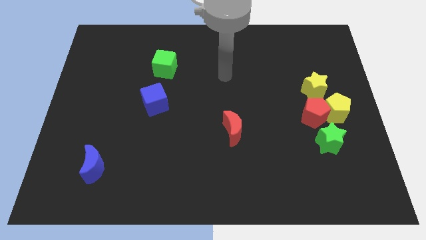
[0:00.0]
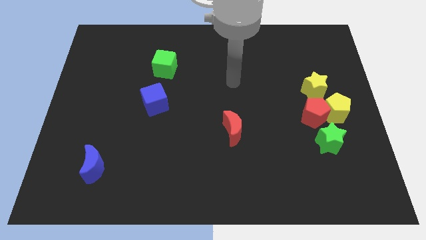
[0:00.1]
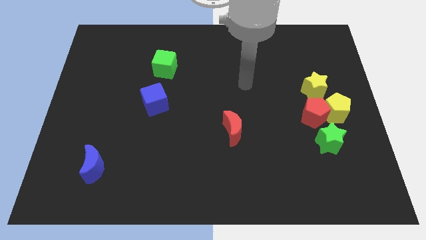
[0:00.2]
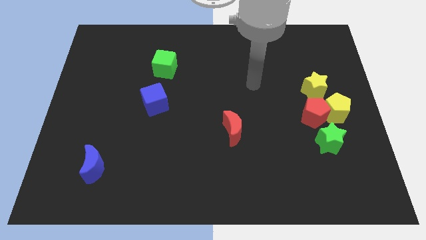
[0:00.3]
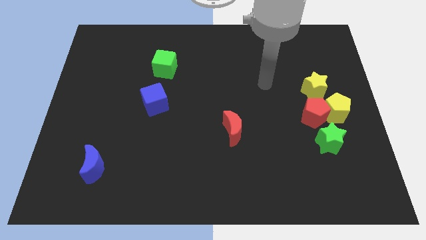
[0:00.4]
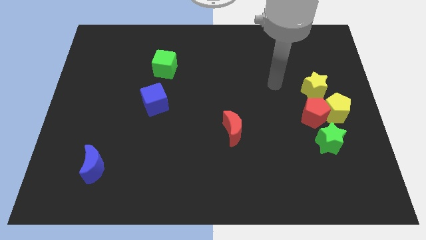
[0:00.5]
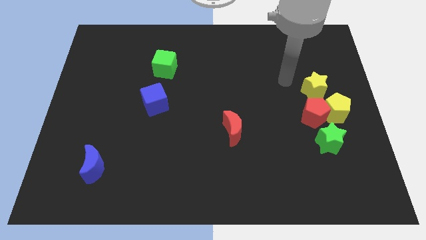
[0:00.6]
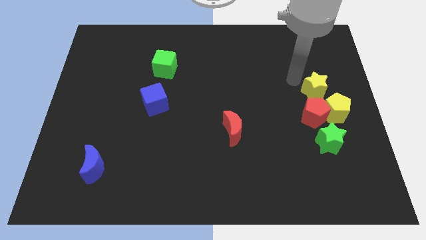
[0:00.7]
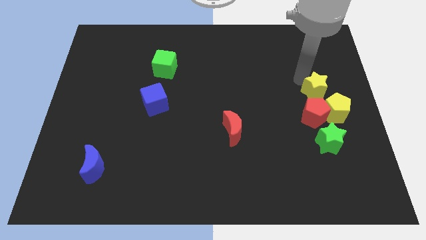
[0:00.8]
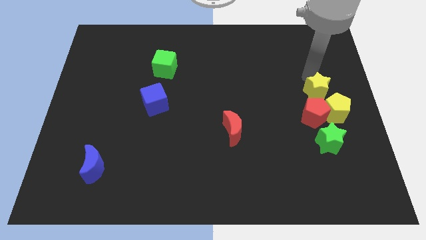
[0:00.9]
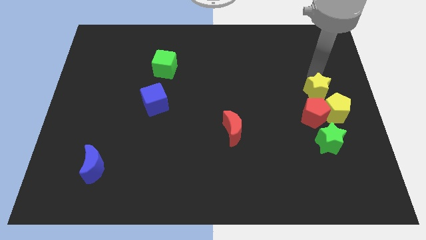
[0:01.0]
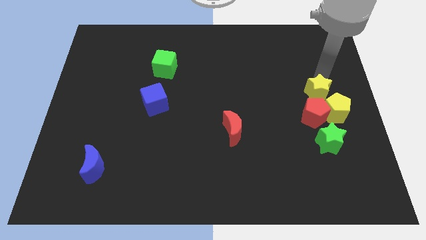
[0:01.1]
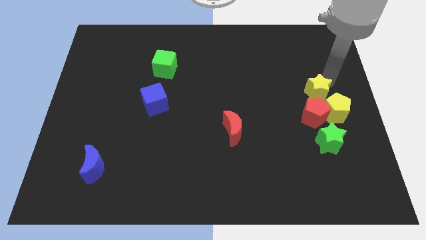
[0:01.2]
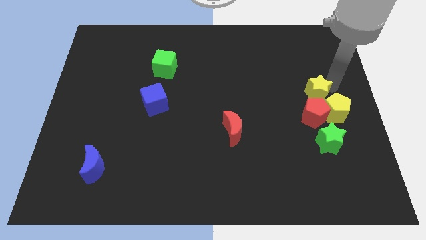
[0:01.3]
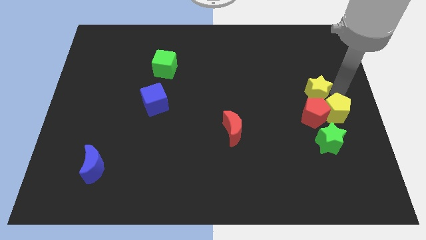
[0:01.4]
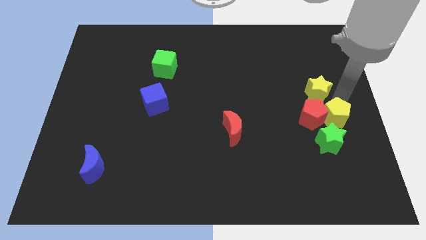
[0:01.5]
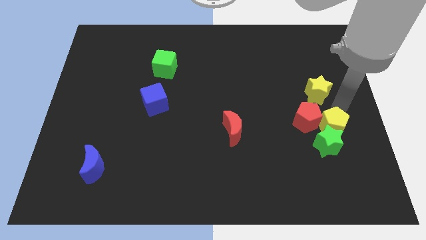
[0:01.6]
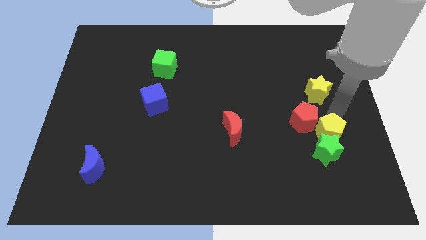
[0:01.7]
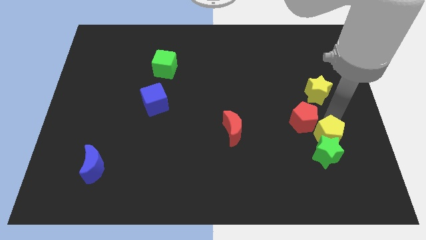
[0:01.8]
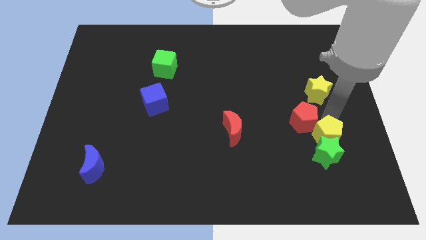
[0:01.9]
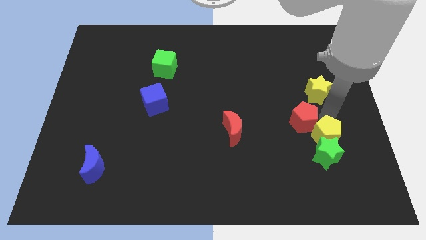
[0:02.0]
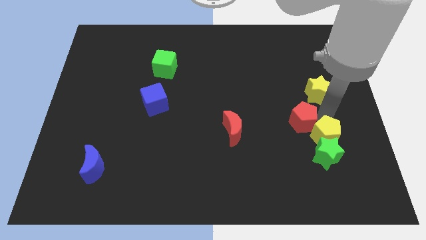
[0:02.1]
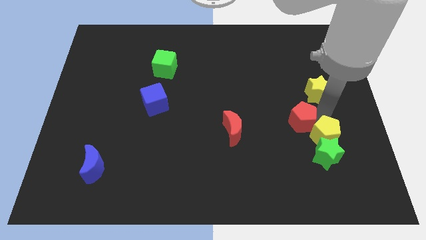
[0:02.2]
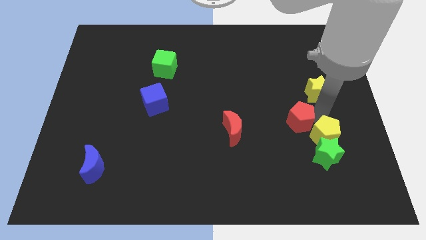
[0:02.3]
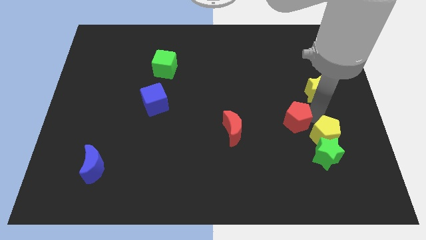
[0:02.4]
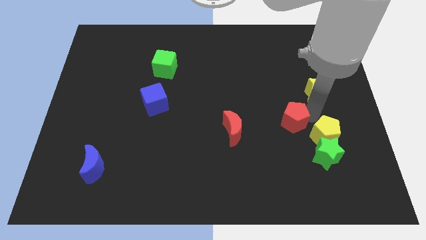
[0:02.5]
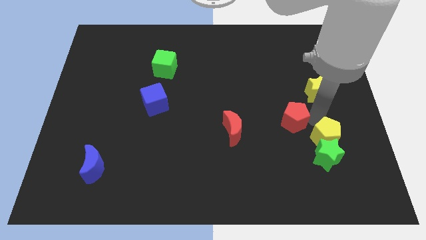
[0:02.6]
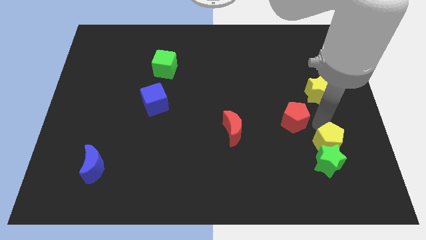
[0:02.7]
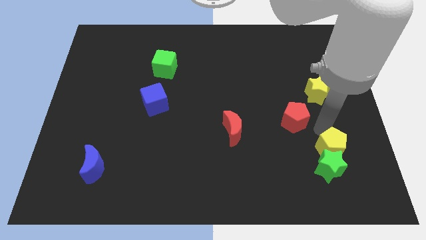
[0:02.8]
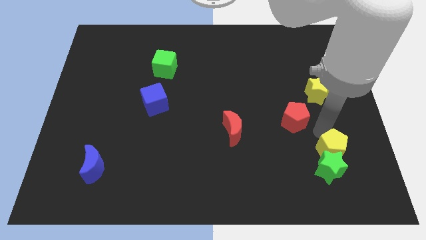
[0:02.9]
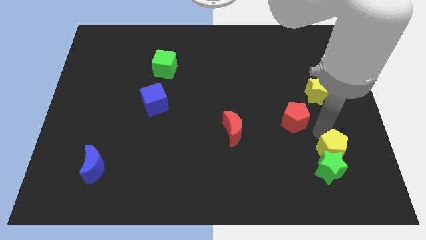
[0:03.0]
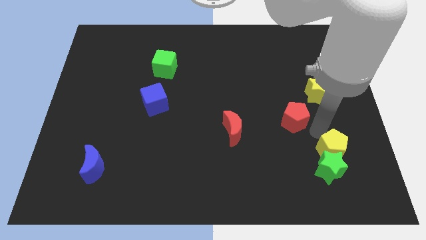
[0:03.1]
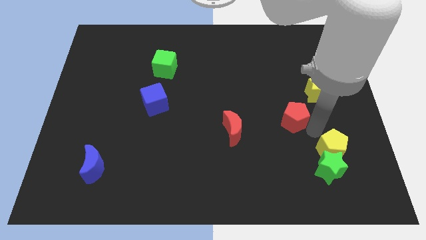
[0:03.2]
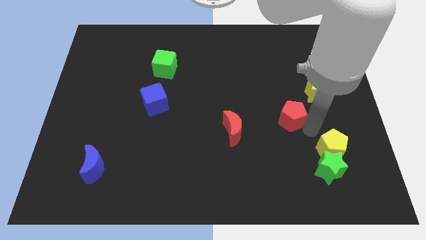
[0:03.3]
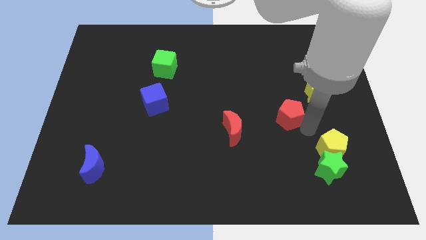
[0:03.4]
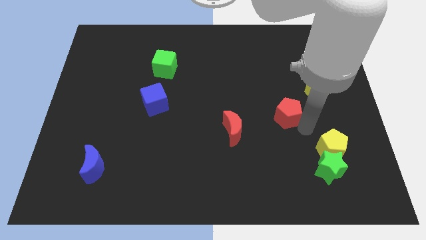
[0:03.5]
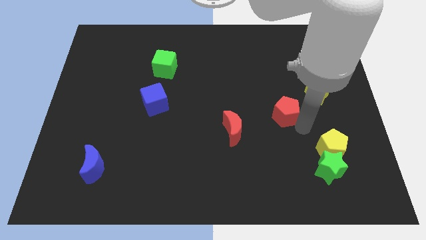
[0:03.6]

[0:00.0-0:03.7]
move the red pentagon away from the group of blocks

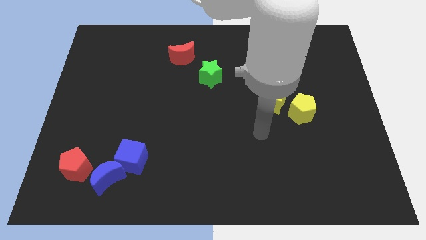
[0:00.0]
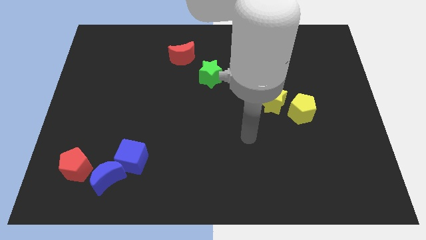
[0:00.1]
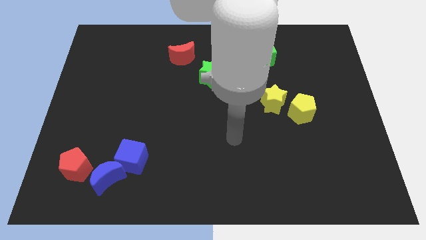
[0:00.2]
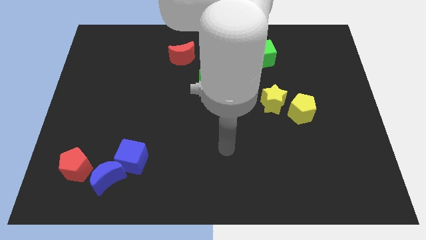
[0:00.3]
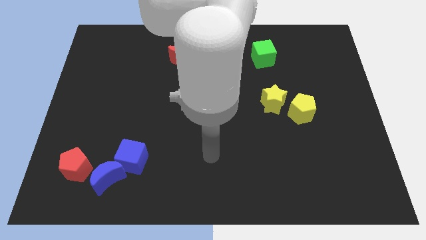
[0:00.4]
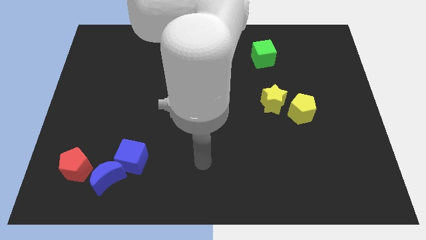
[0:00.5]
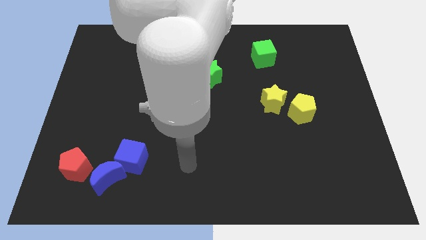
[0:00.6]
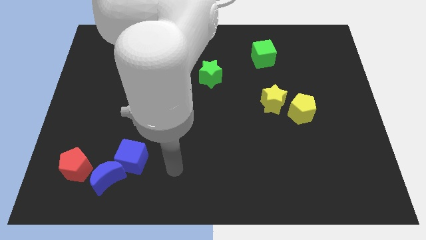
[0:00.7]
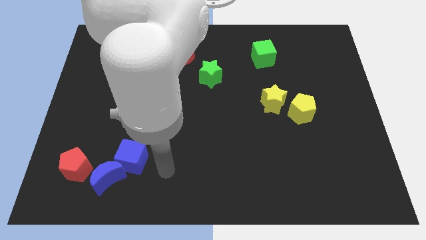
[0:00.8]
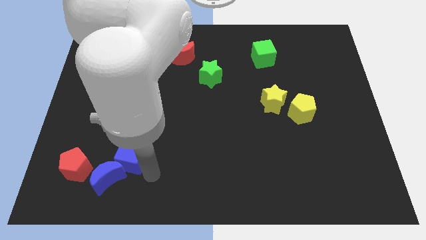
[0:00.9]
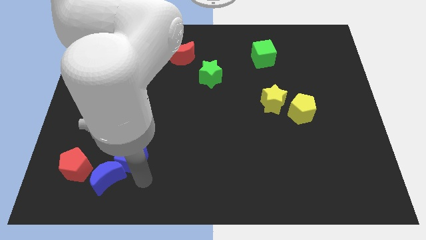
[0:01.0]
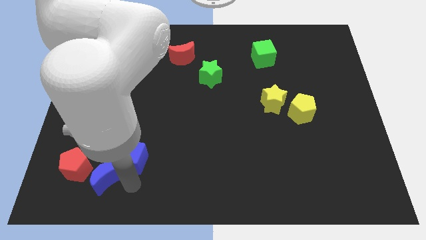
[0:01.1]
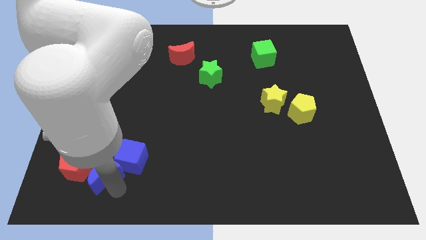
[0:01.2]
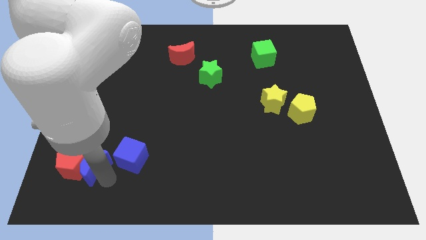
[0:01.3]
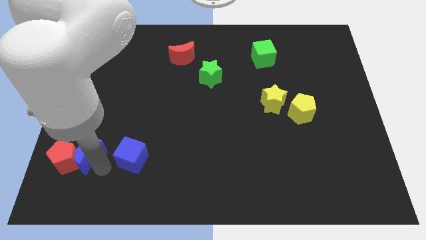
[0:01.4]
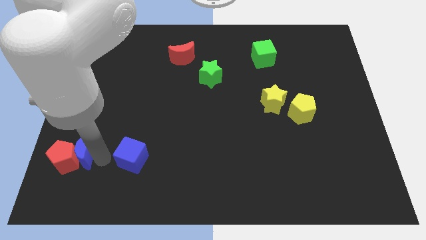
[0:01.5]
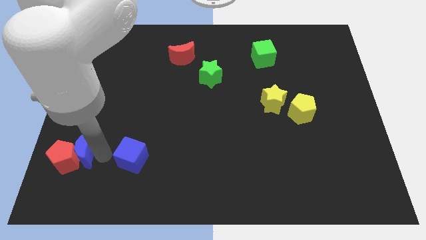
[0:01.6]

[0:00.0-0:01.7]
move the blue cube away from the blue moon

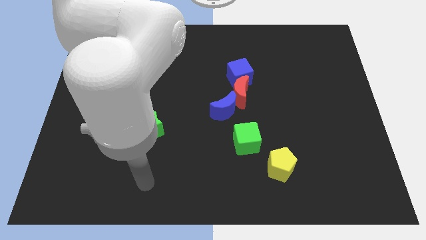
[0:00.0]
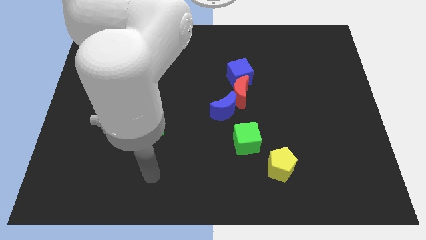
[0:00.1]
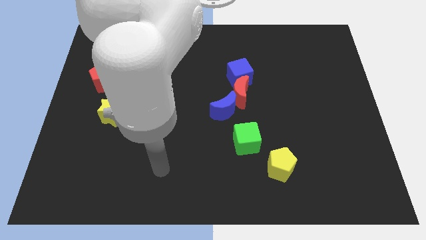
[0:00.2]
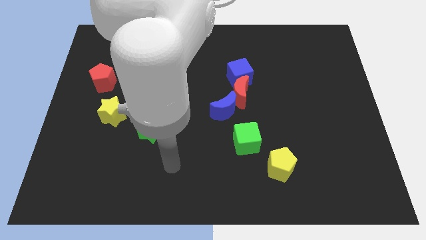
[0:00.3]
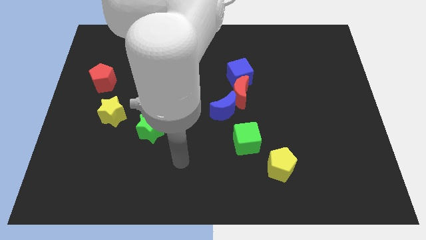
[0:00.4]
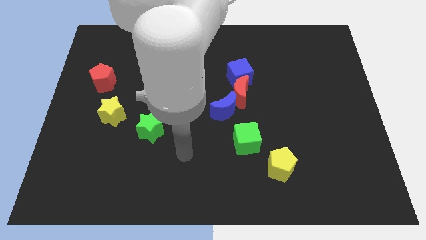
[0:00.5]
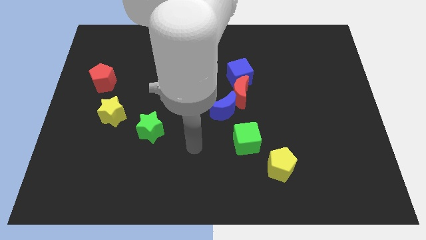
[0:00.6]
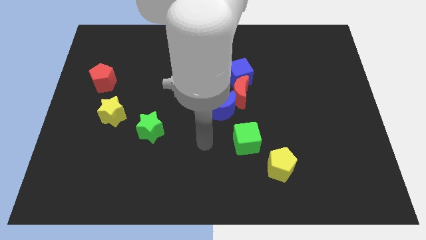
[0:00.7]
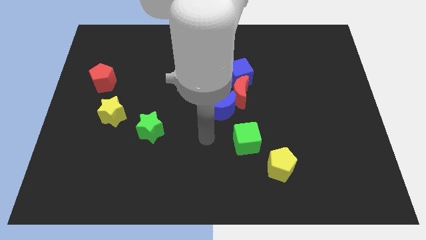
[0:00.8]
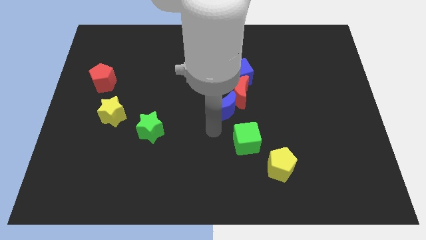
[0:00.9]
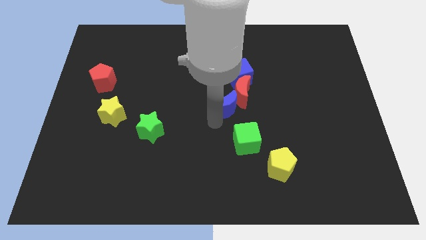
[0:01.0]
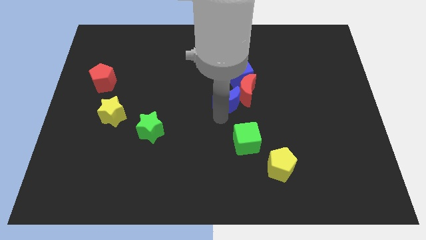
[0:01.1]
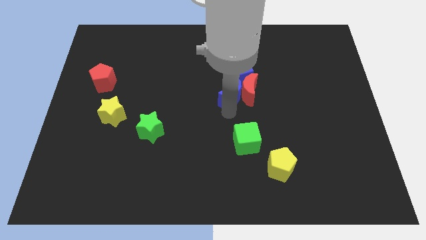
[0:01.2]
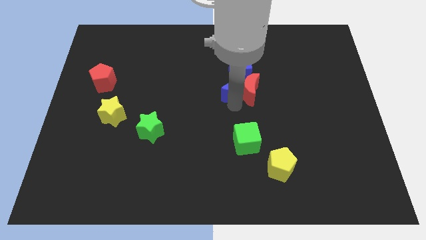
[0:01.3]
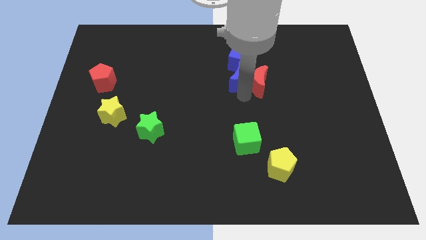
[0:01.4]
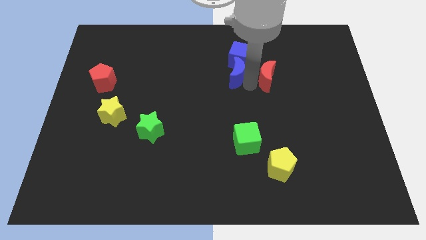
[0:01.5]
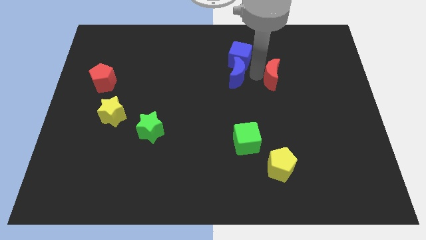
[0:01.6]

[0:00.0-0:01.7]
separate the blue cube from the red moon

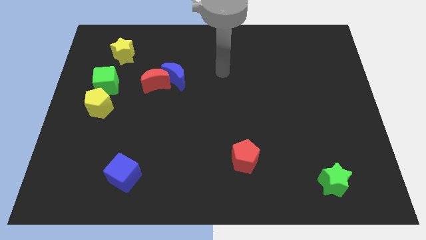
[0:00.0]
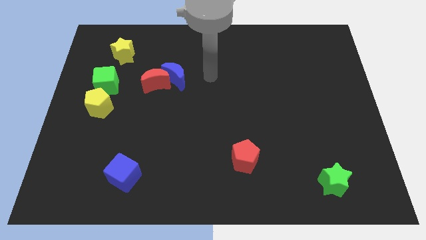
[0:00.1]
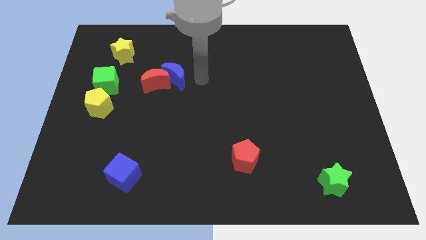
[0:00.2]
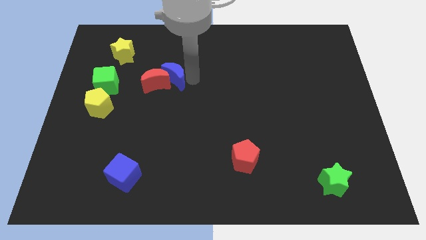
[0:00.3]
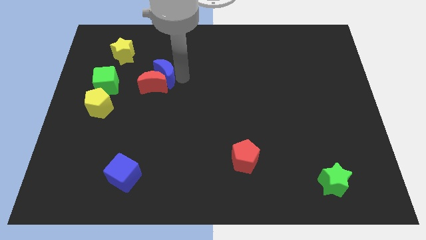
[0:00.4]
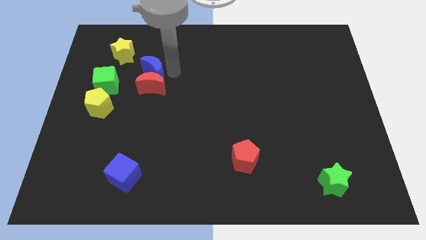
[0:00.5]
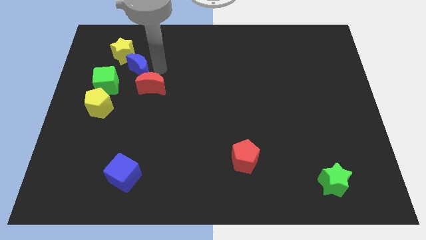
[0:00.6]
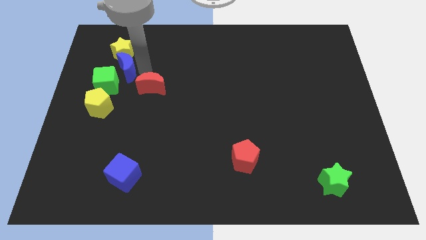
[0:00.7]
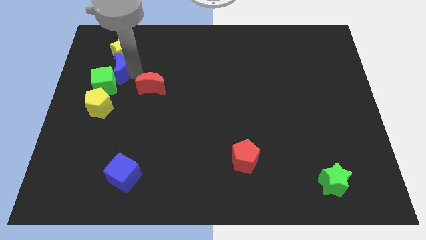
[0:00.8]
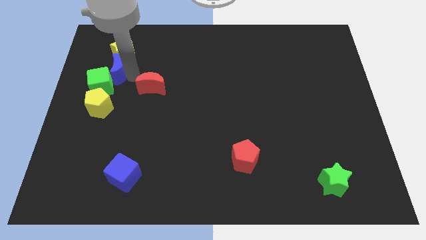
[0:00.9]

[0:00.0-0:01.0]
separate the red moon from the blue moon

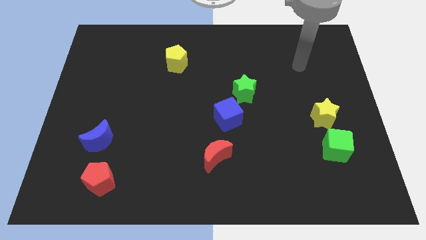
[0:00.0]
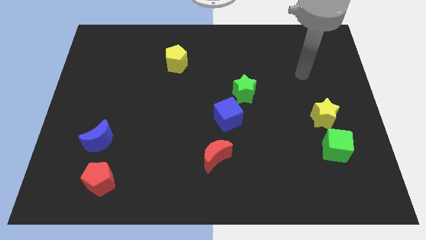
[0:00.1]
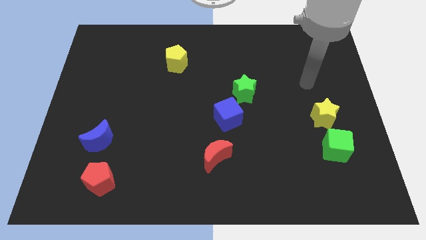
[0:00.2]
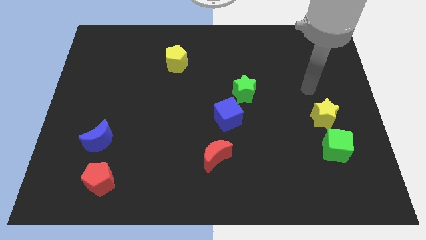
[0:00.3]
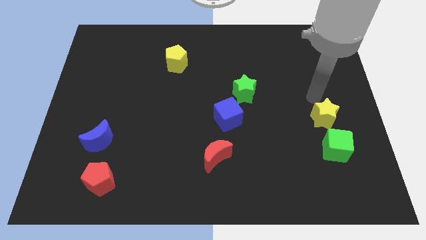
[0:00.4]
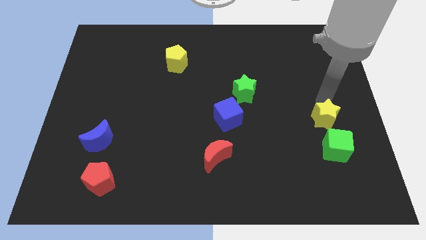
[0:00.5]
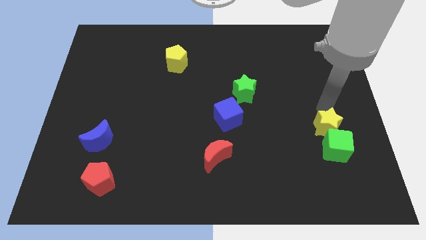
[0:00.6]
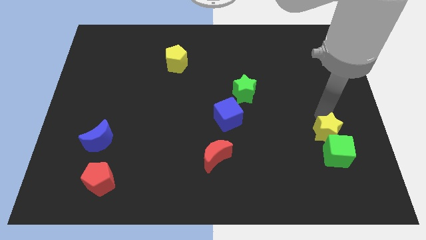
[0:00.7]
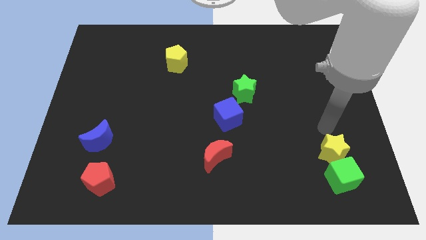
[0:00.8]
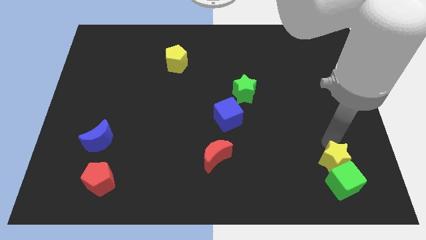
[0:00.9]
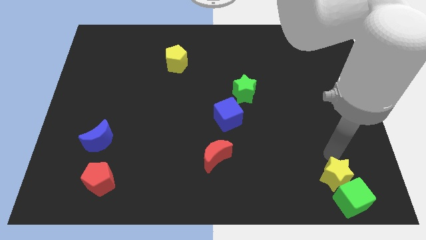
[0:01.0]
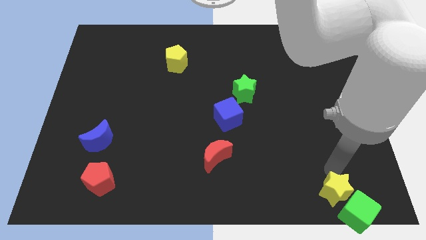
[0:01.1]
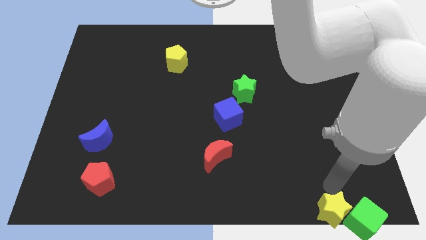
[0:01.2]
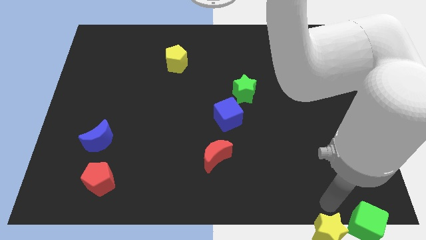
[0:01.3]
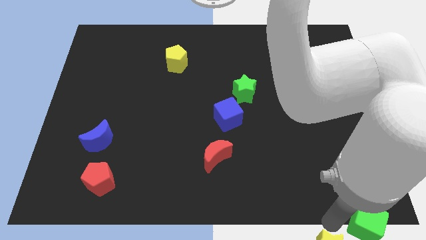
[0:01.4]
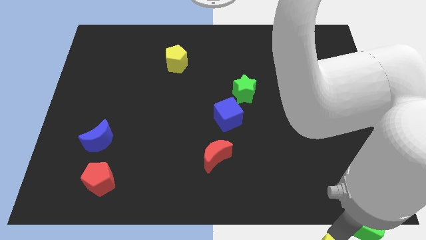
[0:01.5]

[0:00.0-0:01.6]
separate the green cube from the yellow star
